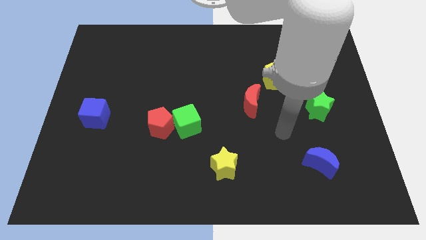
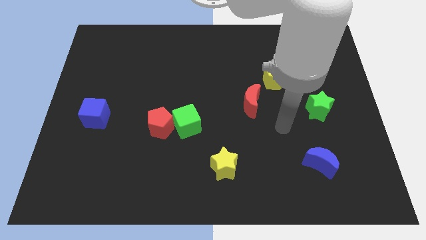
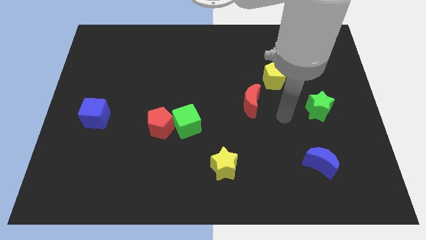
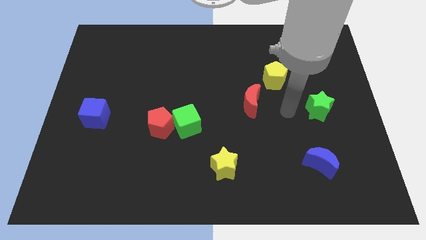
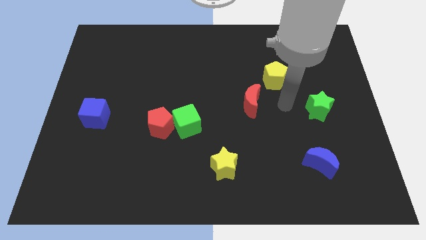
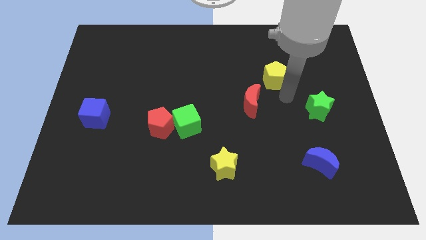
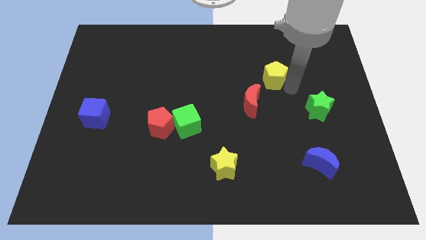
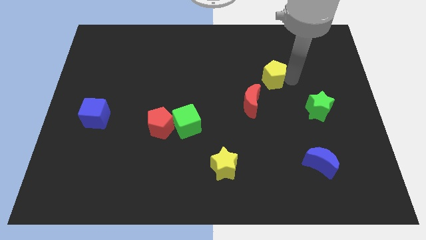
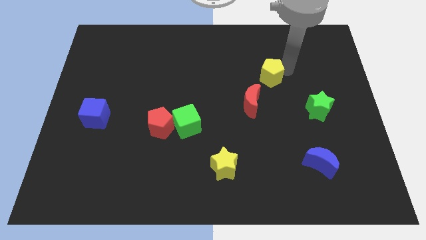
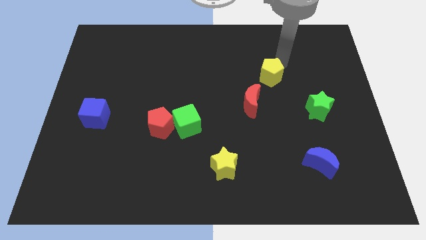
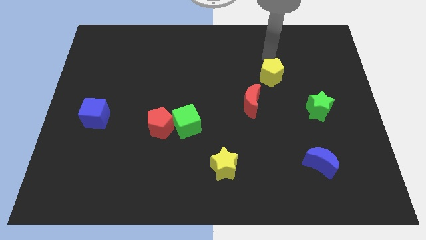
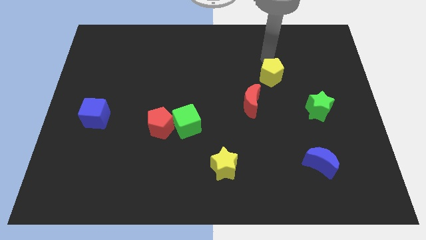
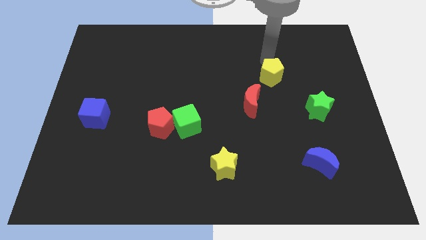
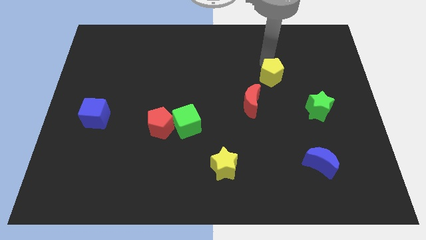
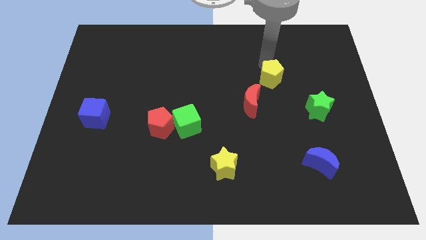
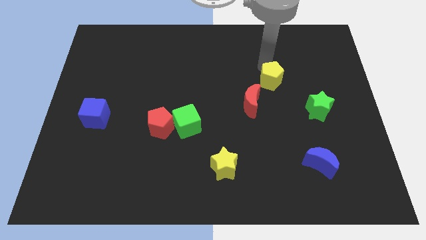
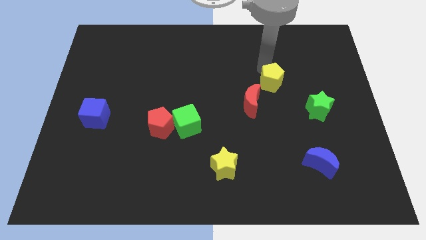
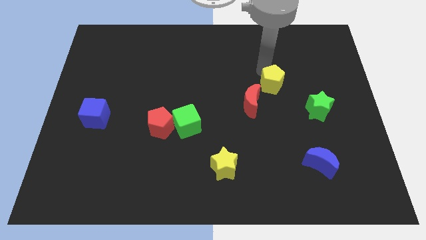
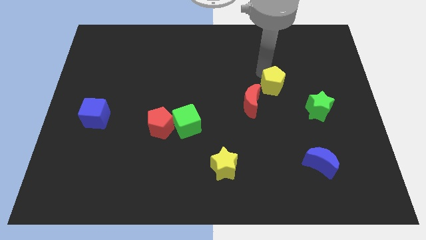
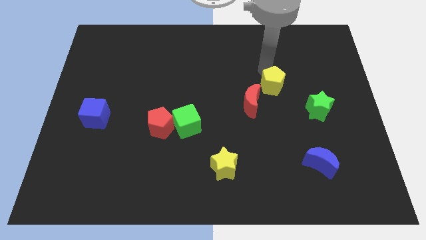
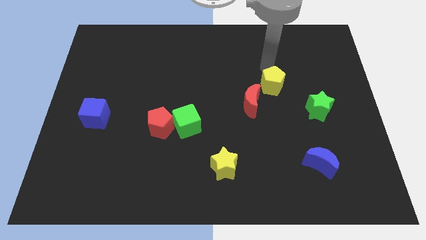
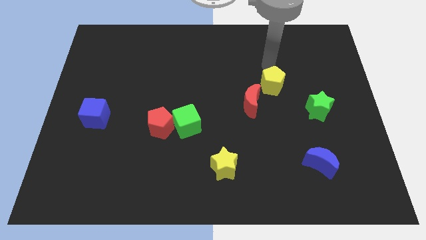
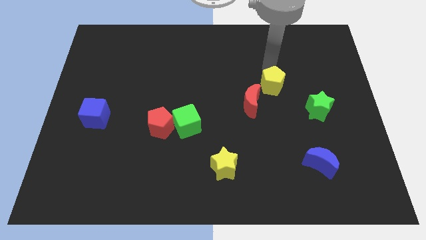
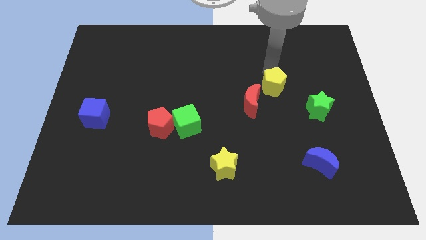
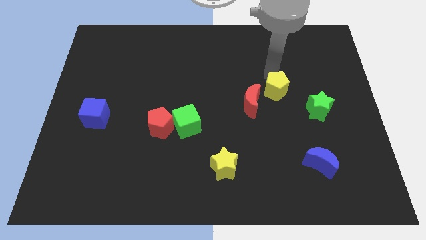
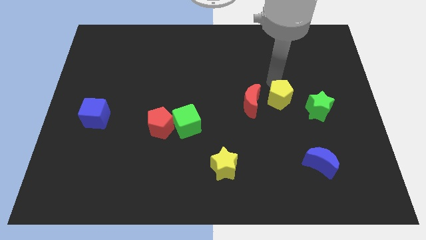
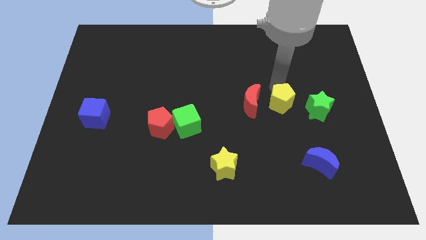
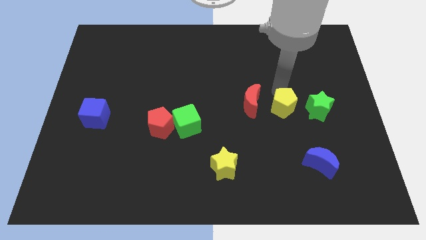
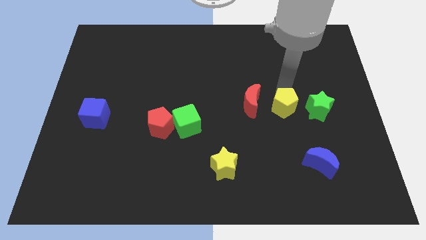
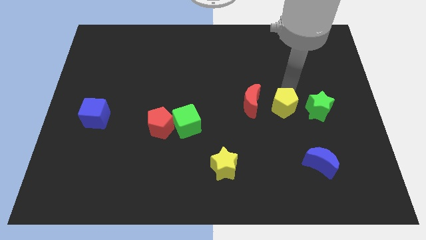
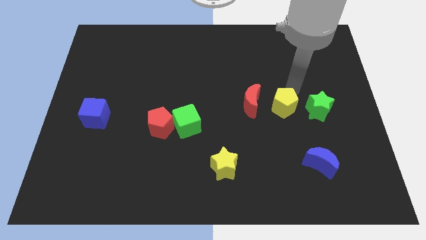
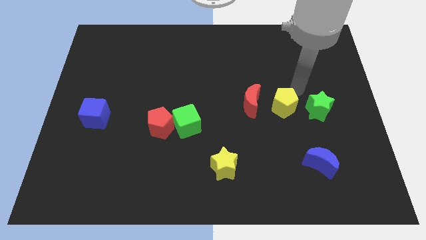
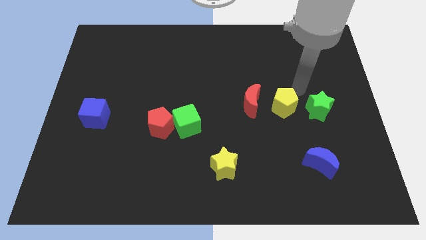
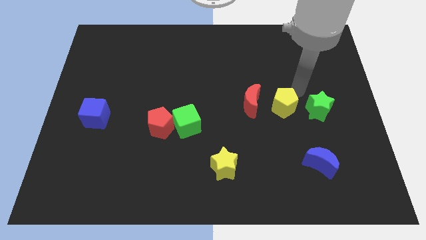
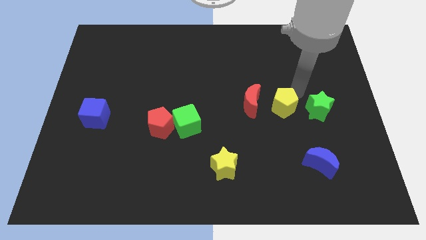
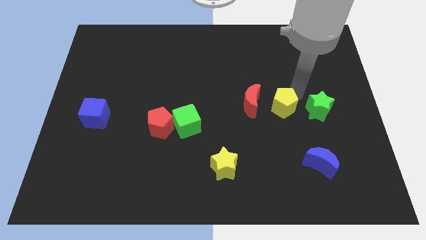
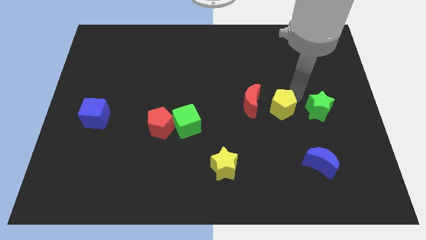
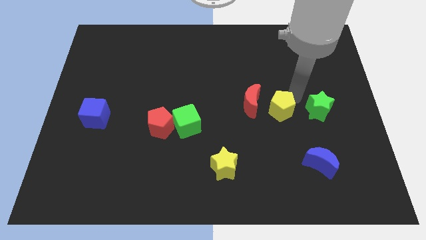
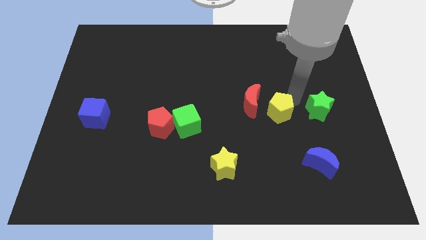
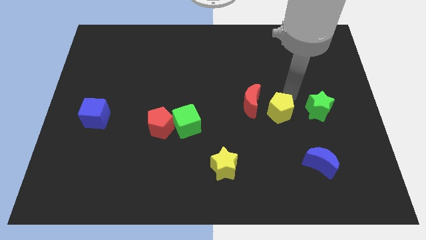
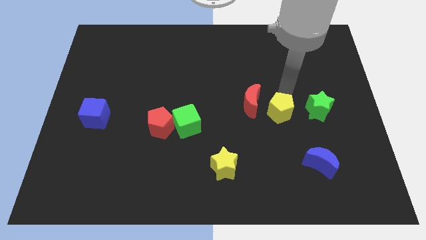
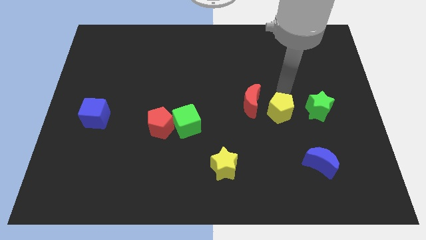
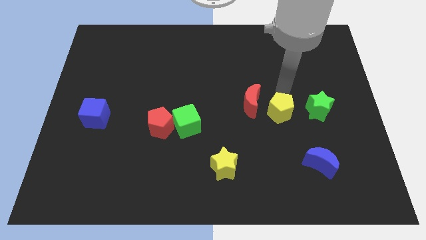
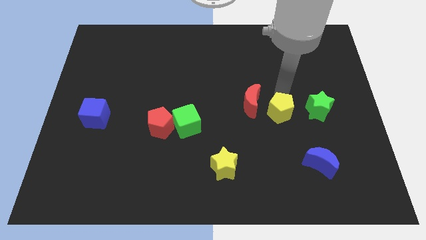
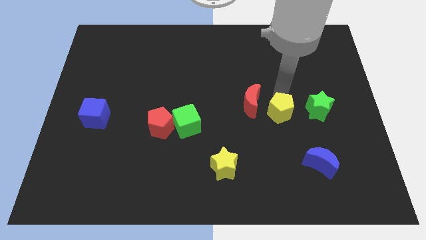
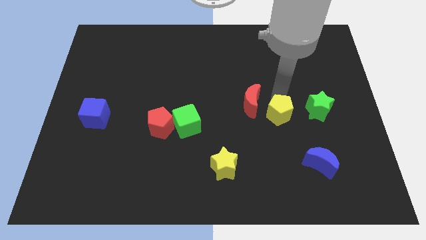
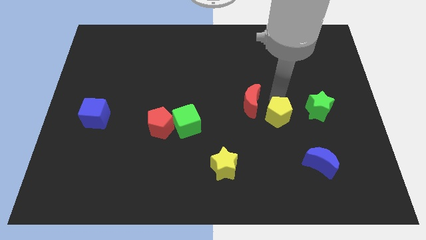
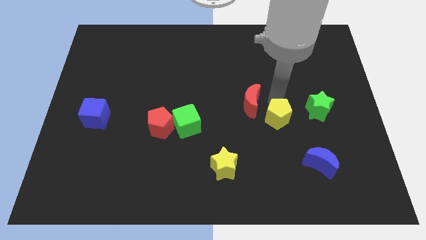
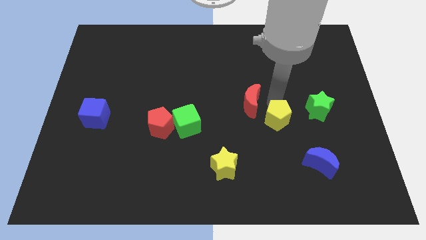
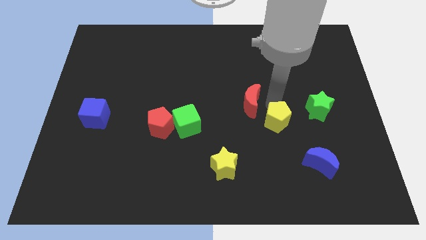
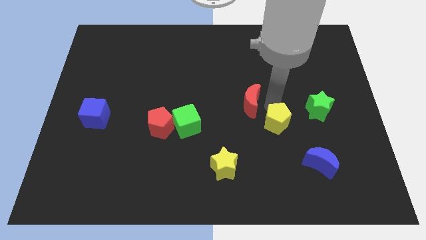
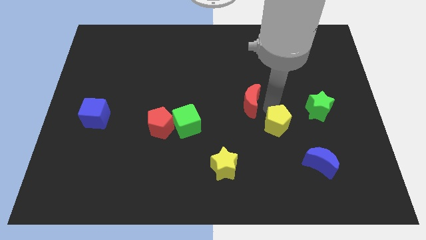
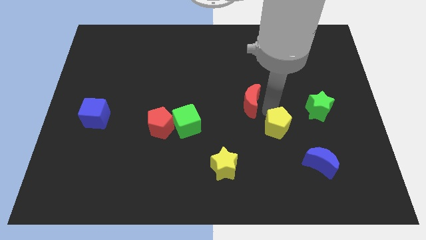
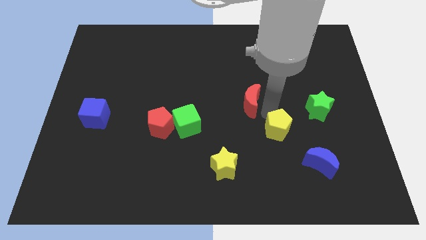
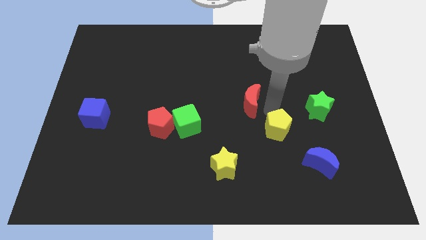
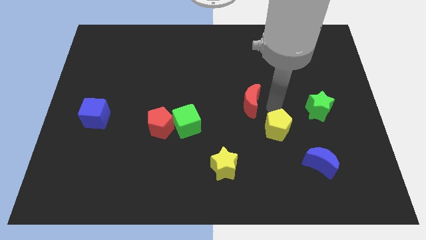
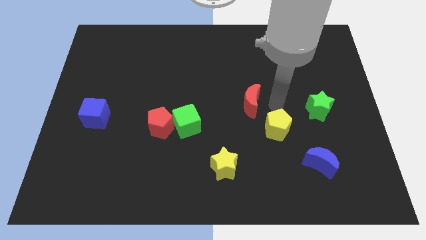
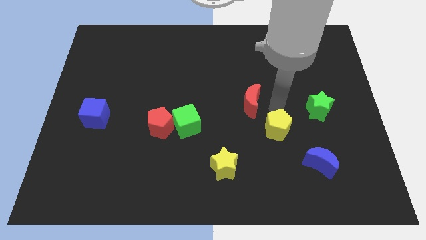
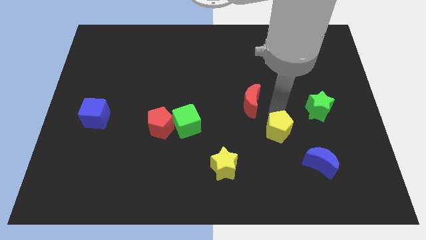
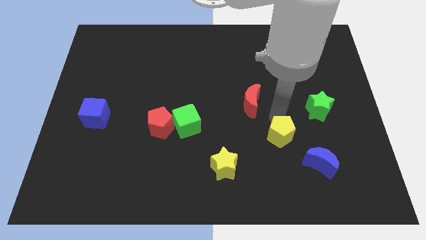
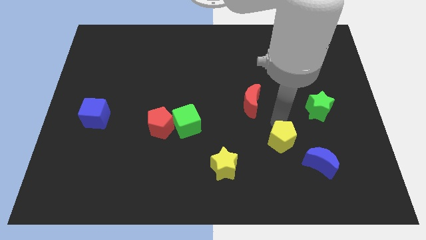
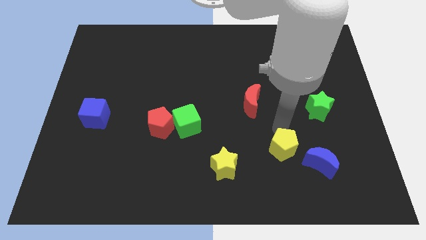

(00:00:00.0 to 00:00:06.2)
move the yellow pentagon to the right side of the yellow star
